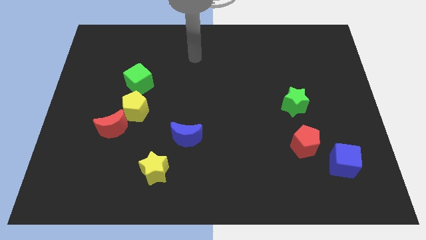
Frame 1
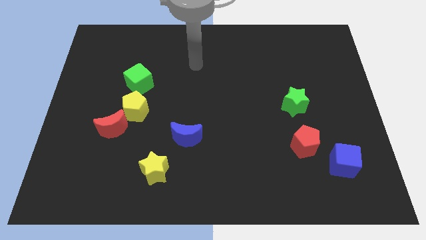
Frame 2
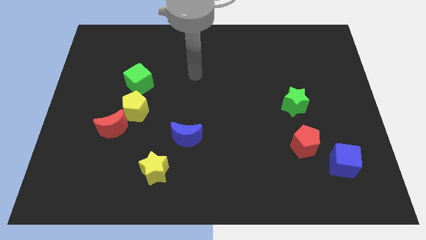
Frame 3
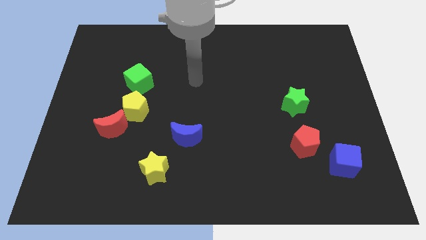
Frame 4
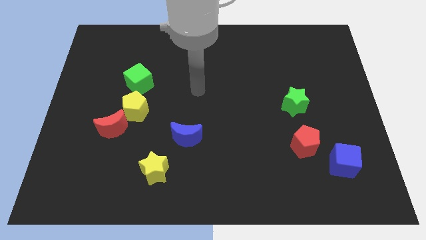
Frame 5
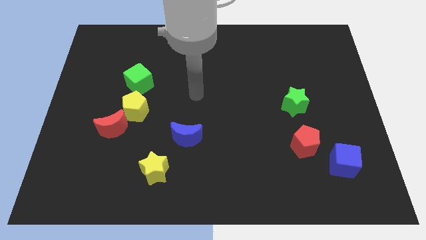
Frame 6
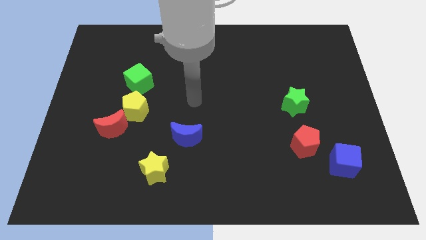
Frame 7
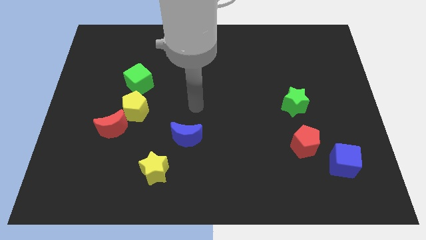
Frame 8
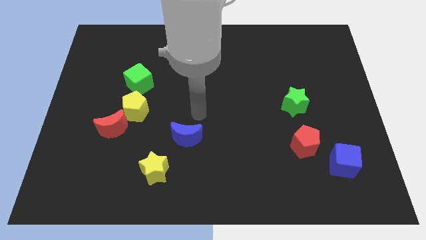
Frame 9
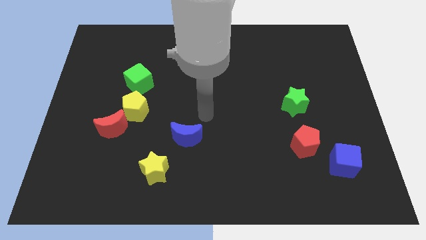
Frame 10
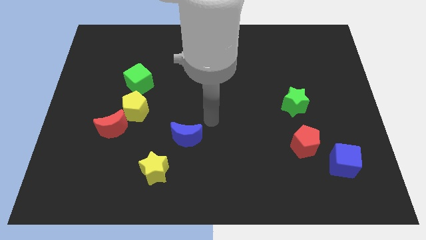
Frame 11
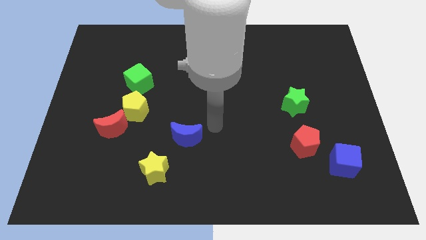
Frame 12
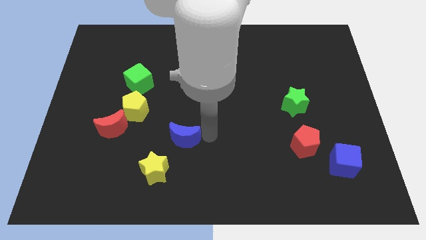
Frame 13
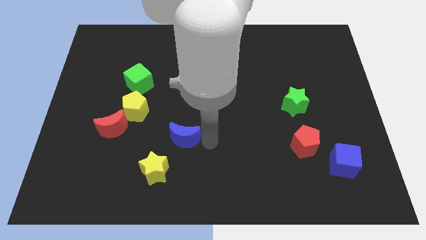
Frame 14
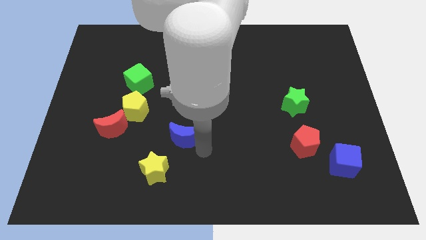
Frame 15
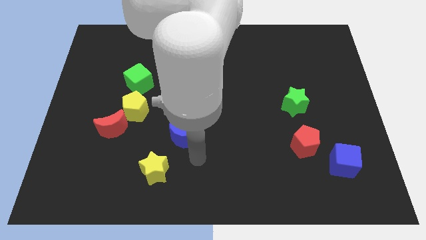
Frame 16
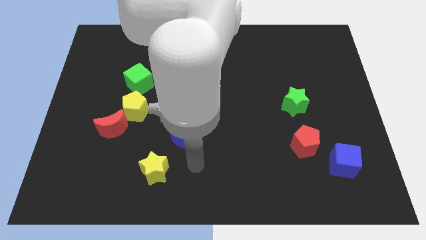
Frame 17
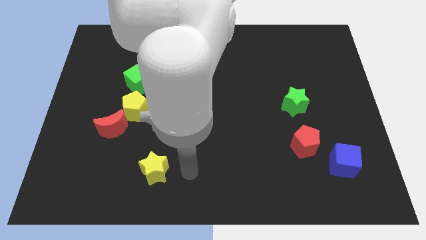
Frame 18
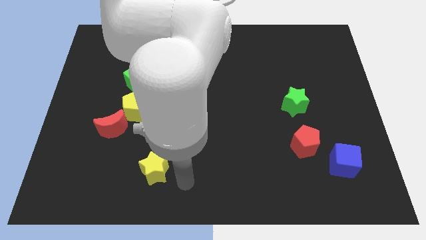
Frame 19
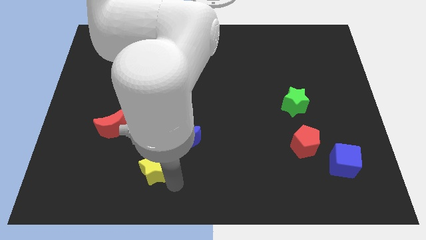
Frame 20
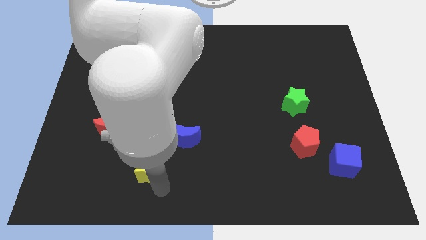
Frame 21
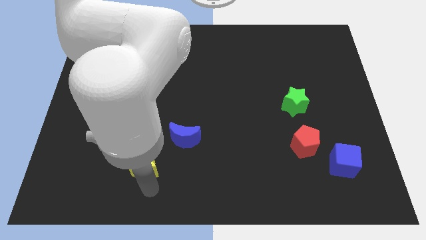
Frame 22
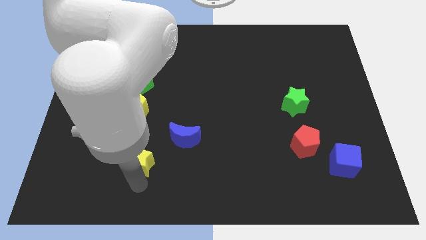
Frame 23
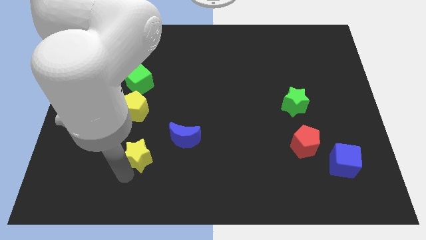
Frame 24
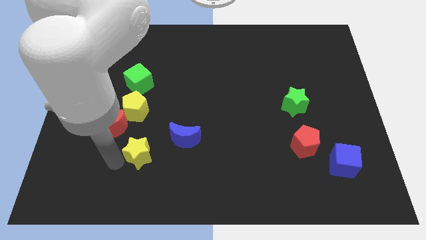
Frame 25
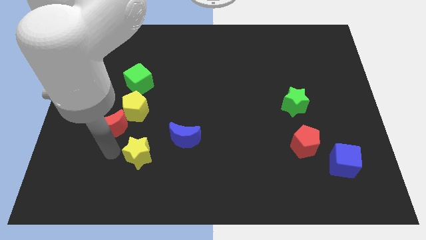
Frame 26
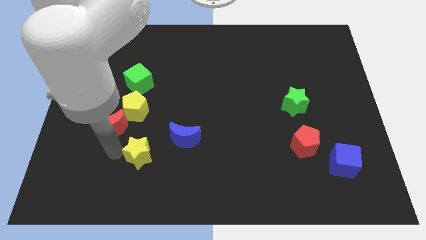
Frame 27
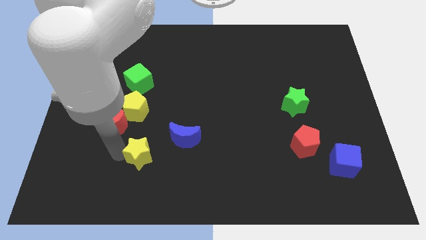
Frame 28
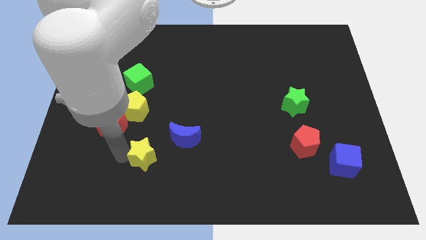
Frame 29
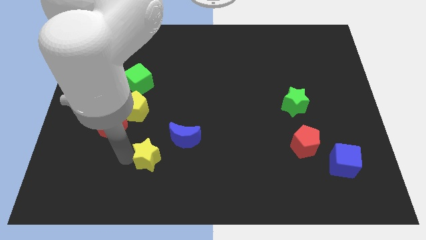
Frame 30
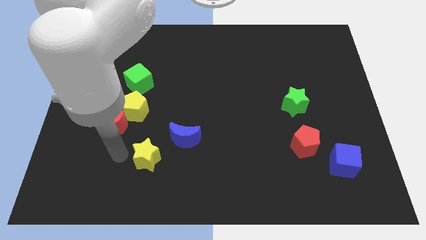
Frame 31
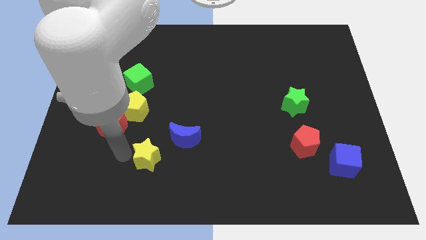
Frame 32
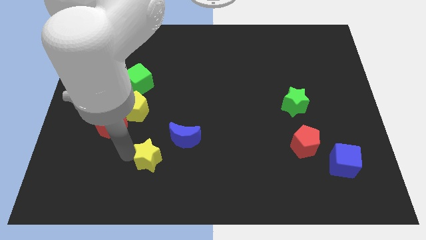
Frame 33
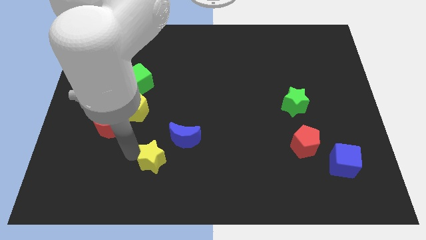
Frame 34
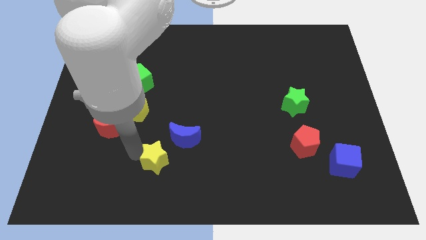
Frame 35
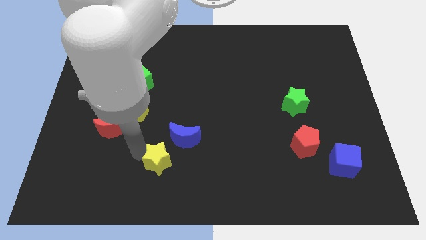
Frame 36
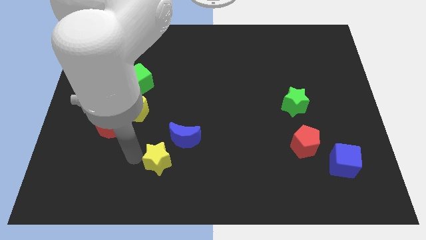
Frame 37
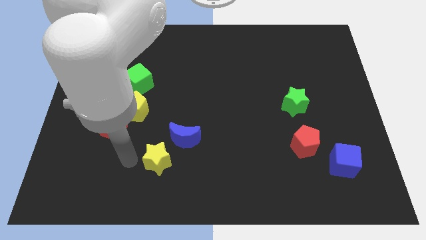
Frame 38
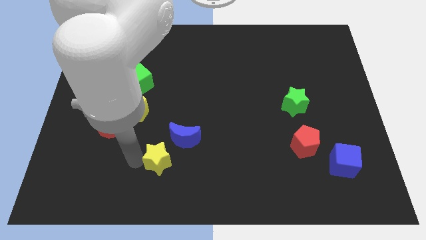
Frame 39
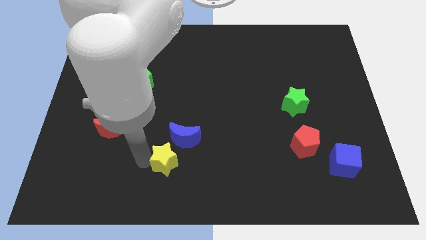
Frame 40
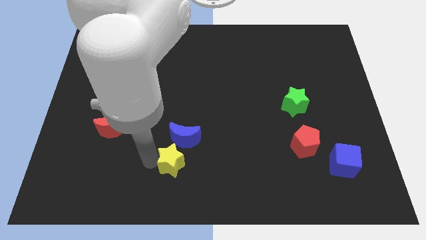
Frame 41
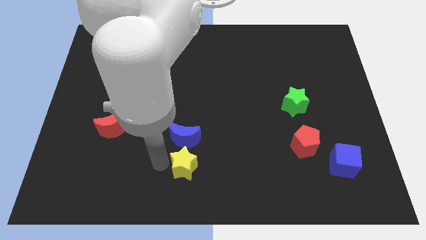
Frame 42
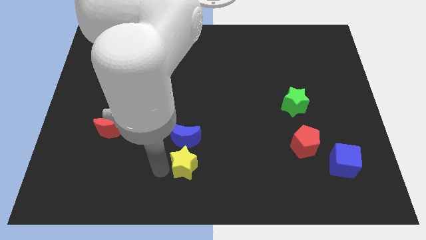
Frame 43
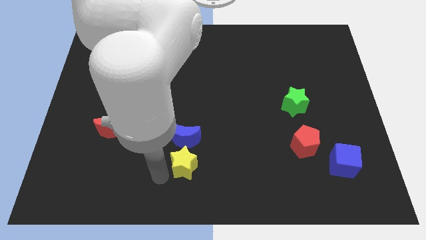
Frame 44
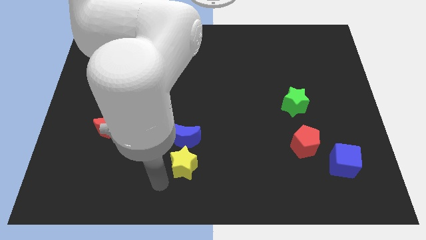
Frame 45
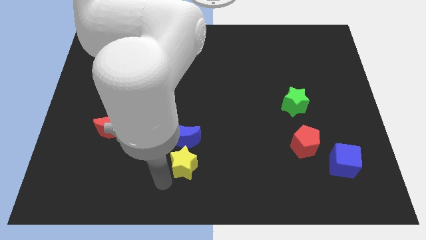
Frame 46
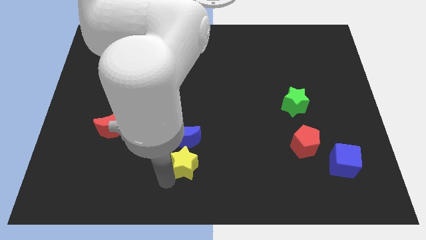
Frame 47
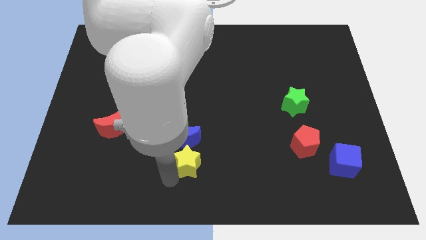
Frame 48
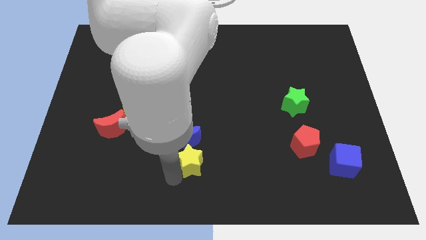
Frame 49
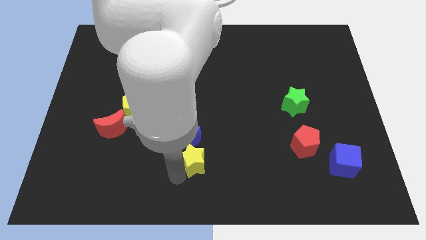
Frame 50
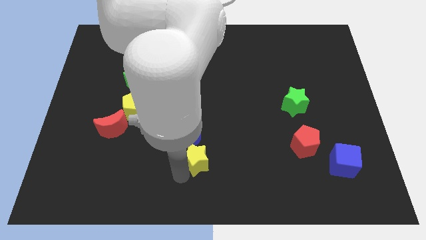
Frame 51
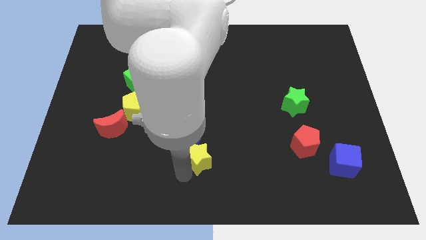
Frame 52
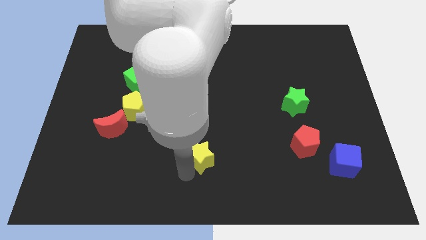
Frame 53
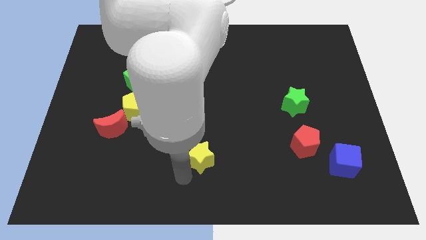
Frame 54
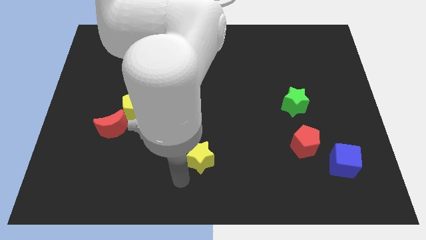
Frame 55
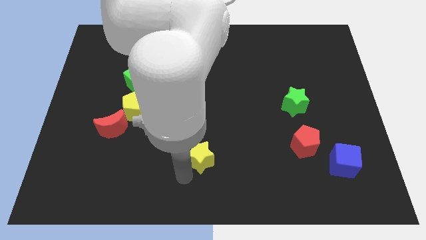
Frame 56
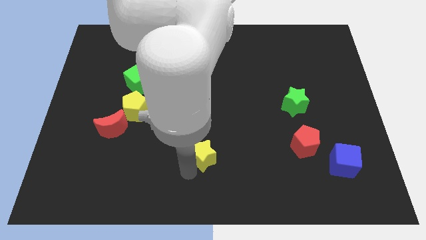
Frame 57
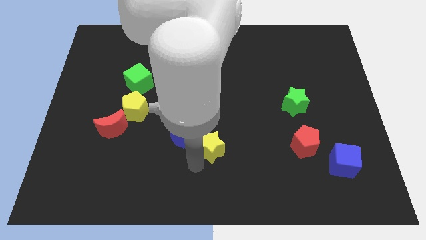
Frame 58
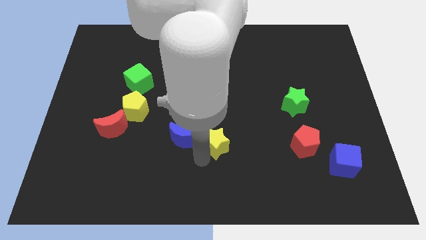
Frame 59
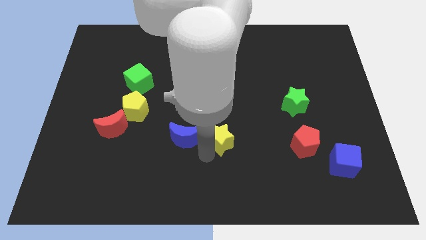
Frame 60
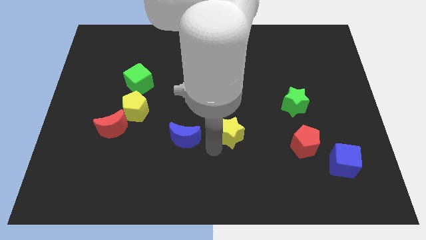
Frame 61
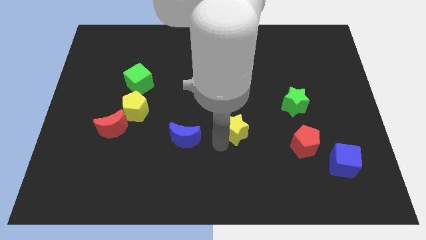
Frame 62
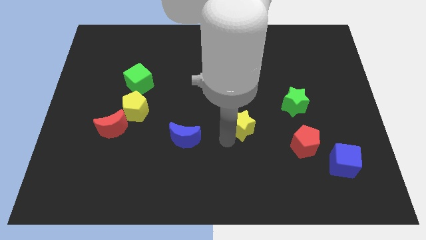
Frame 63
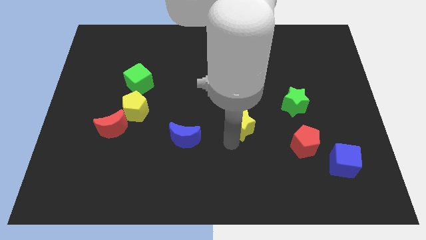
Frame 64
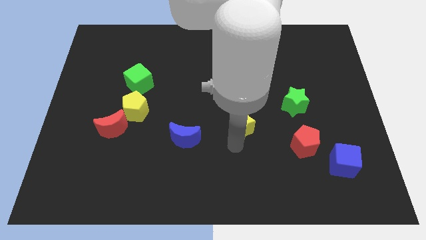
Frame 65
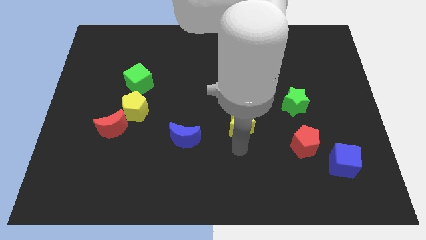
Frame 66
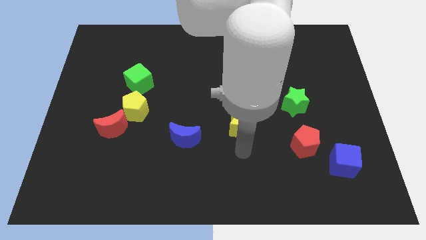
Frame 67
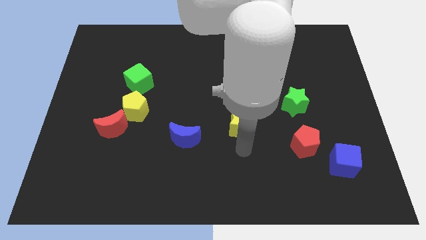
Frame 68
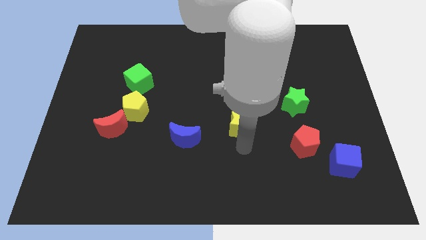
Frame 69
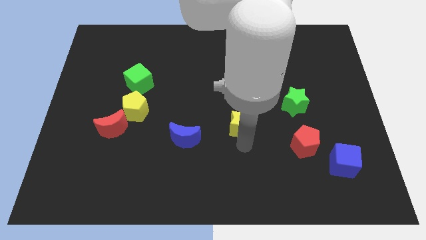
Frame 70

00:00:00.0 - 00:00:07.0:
slide the yellow star upwards and to the right

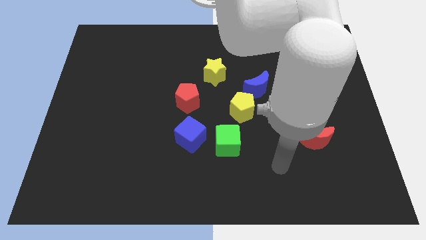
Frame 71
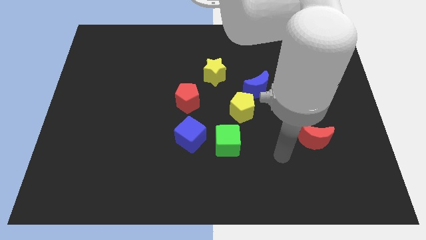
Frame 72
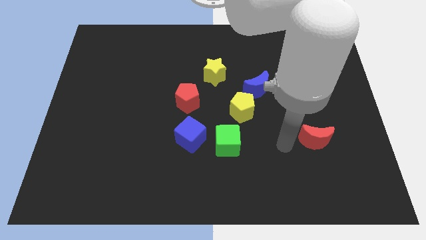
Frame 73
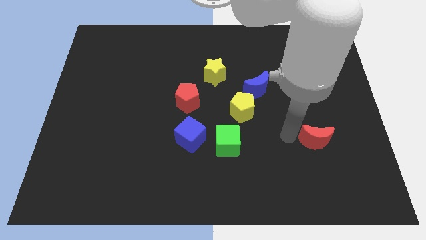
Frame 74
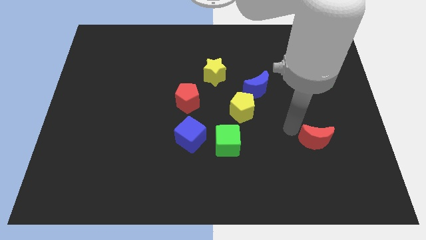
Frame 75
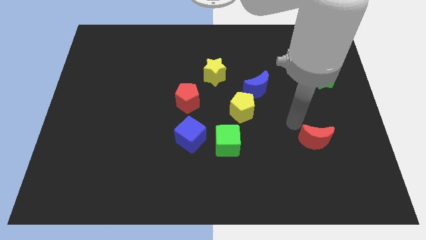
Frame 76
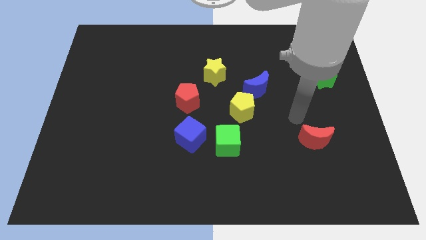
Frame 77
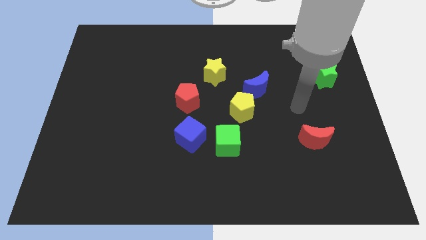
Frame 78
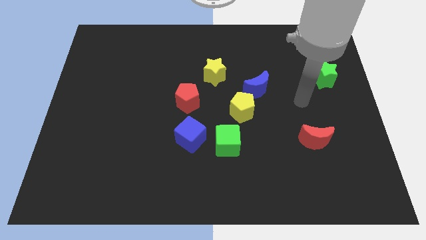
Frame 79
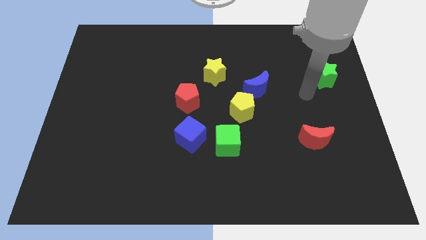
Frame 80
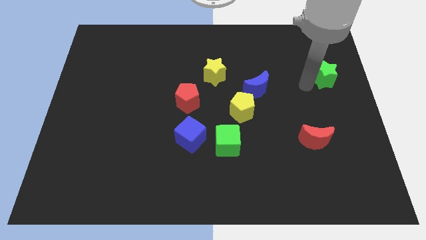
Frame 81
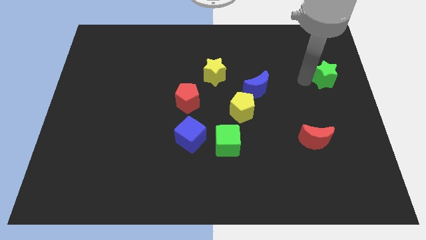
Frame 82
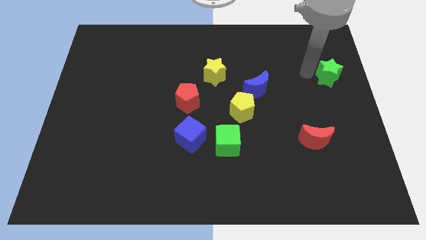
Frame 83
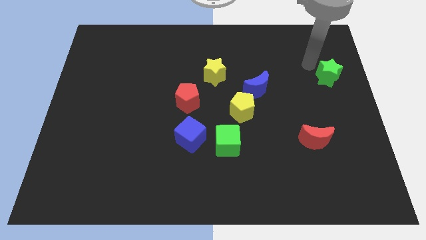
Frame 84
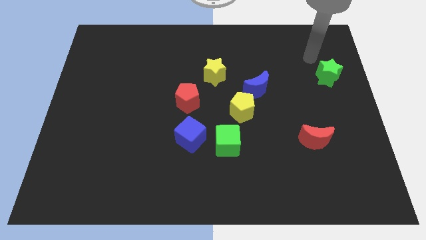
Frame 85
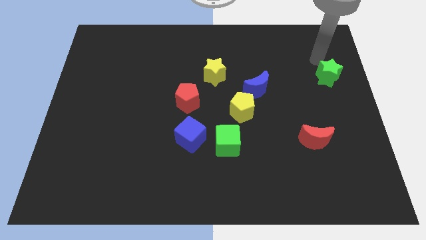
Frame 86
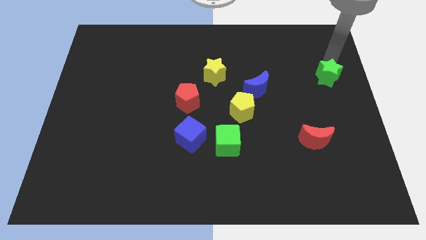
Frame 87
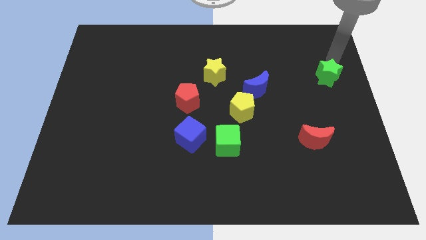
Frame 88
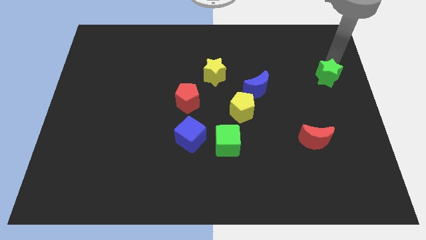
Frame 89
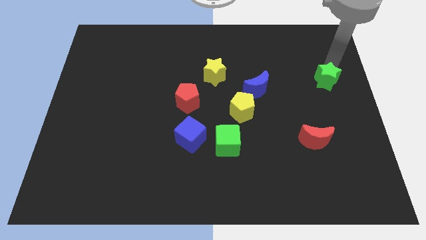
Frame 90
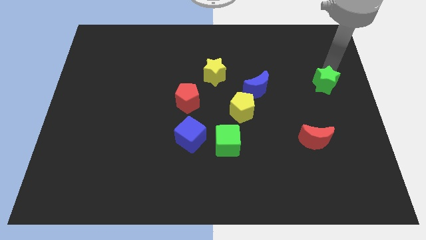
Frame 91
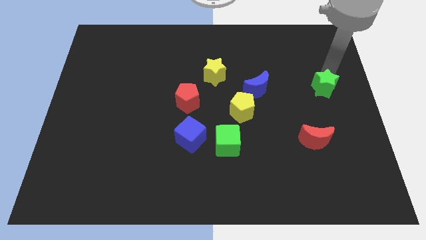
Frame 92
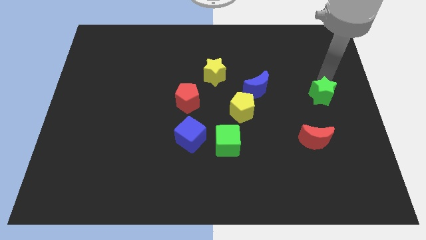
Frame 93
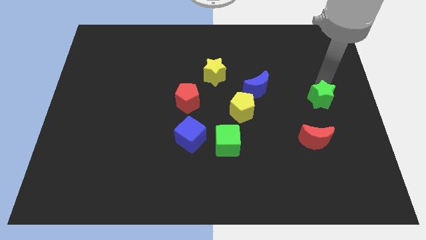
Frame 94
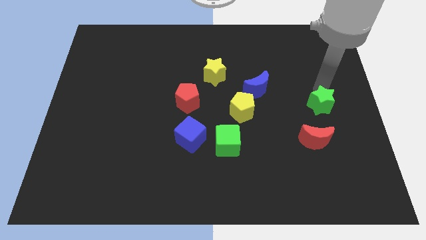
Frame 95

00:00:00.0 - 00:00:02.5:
slightly push the green star downwards
